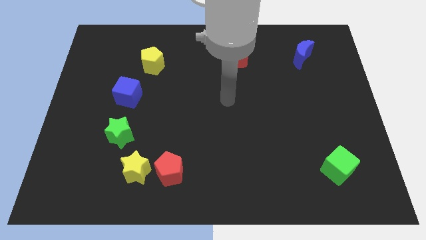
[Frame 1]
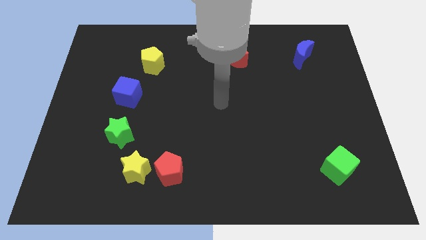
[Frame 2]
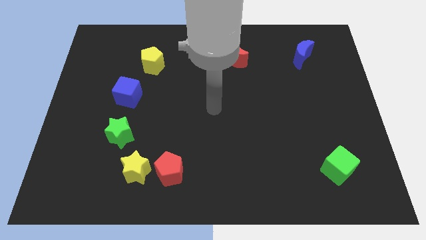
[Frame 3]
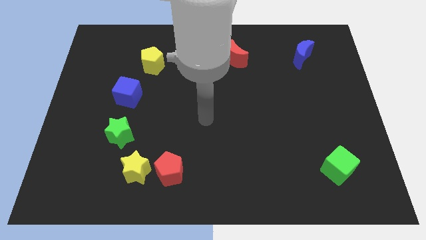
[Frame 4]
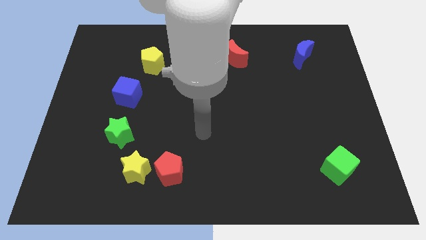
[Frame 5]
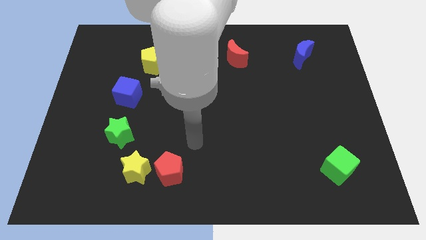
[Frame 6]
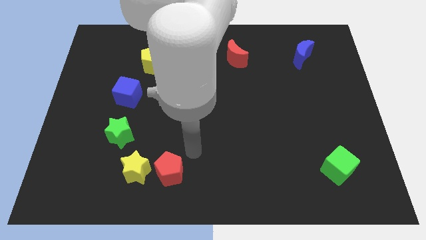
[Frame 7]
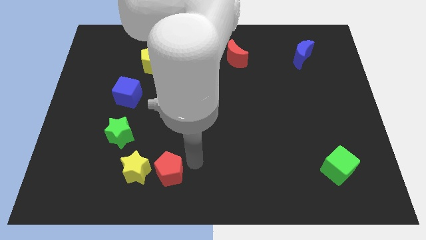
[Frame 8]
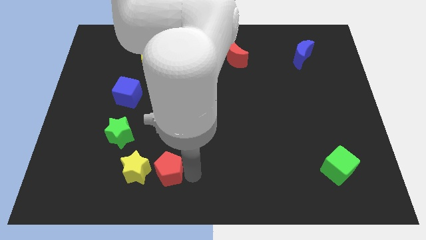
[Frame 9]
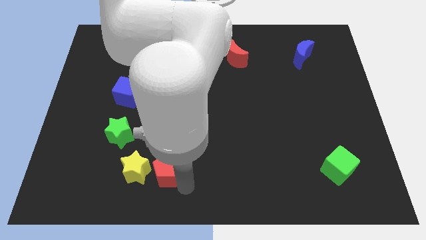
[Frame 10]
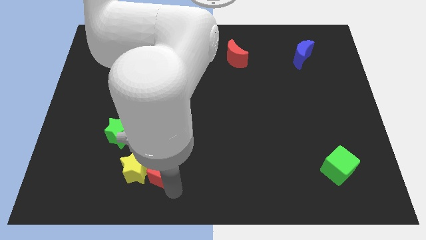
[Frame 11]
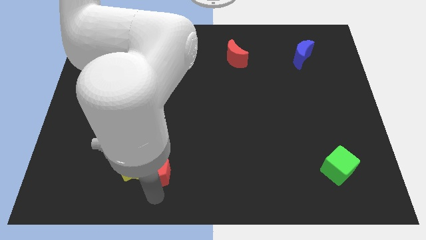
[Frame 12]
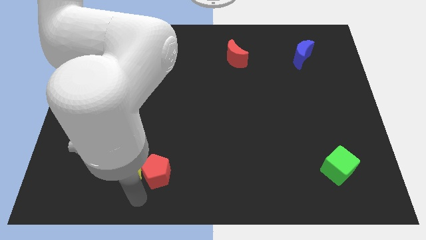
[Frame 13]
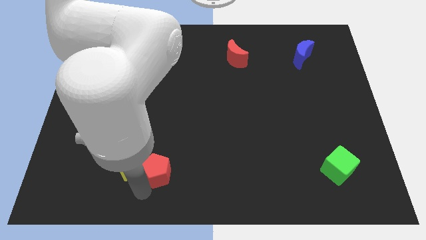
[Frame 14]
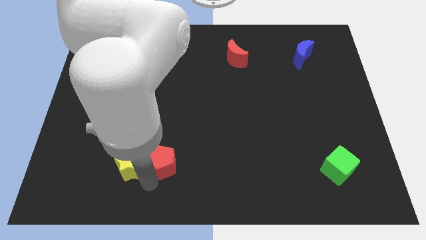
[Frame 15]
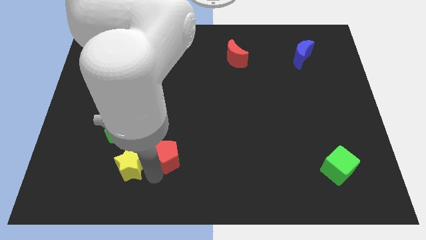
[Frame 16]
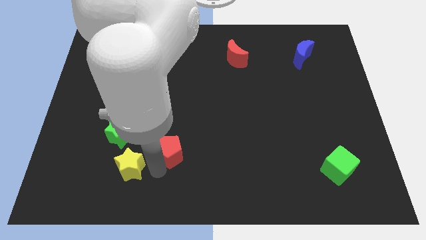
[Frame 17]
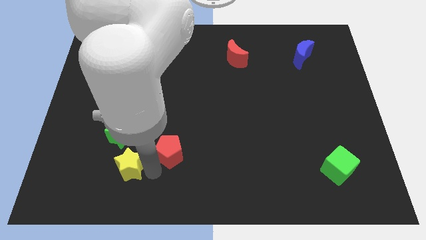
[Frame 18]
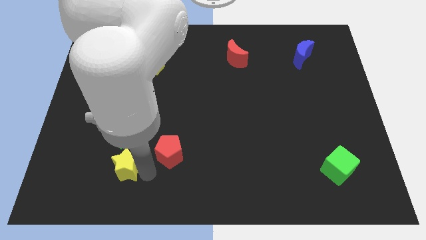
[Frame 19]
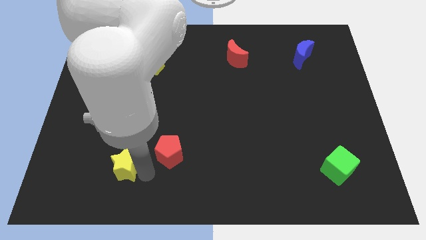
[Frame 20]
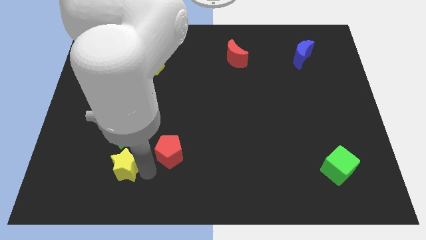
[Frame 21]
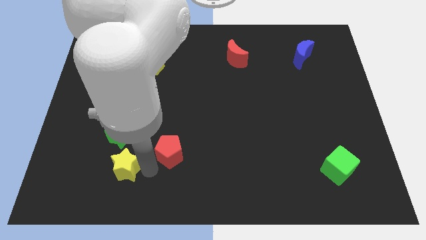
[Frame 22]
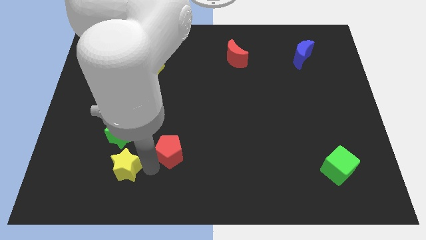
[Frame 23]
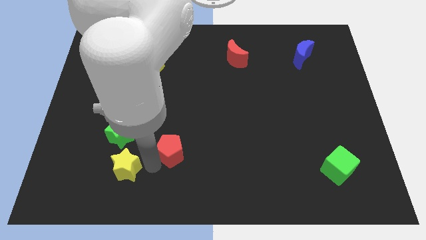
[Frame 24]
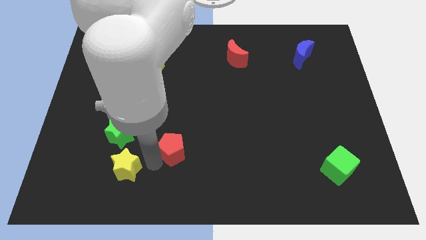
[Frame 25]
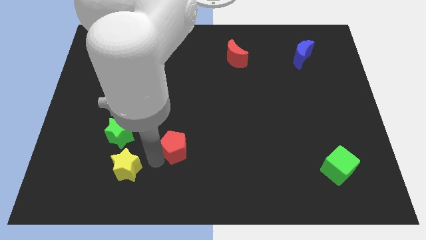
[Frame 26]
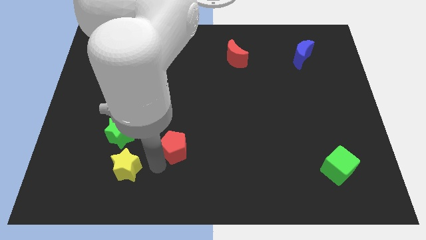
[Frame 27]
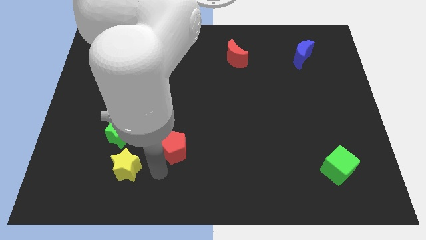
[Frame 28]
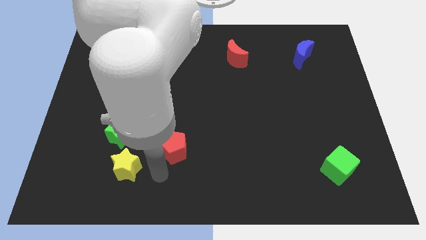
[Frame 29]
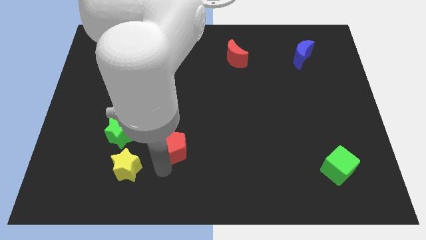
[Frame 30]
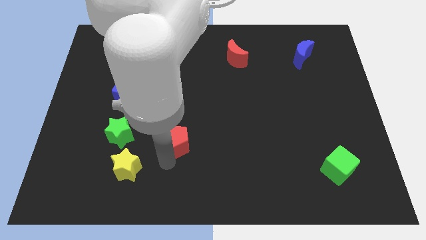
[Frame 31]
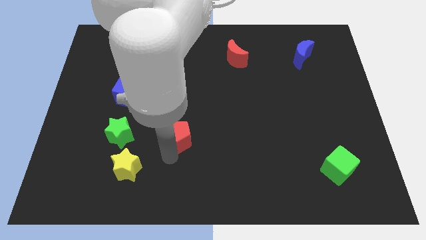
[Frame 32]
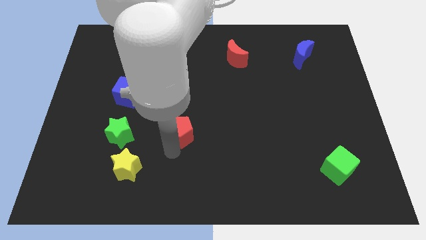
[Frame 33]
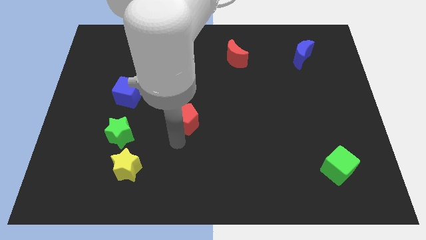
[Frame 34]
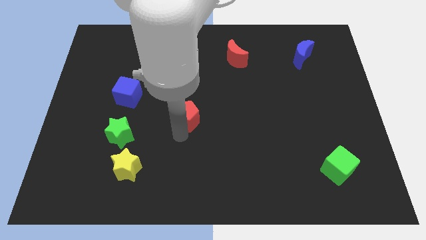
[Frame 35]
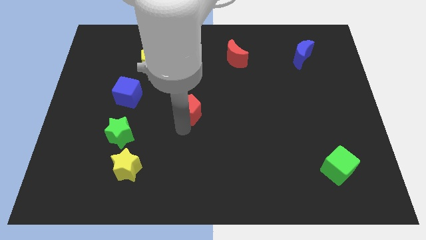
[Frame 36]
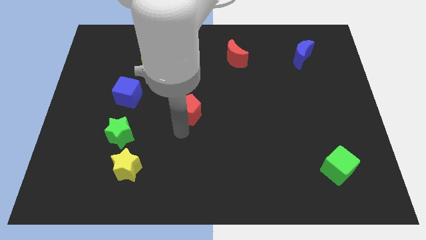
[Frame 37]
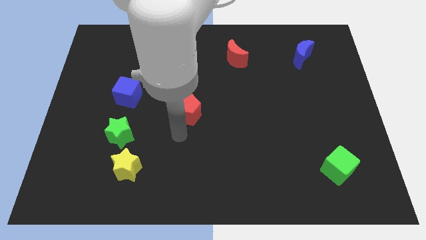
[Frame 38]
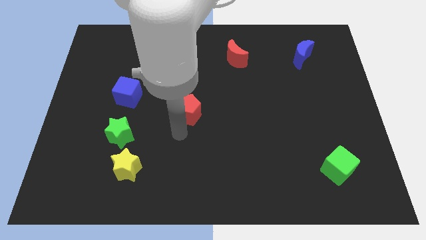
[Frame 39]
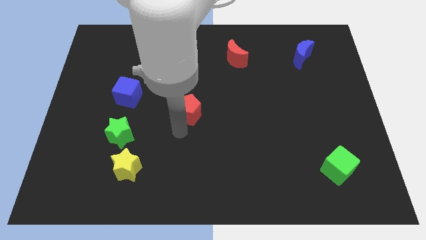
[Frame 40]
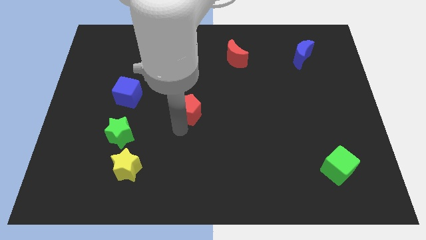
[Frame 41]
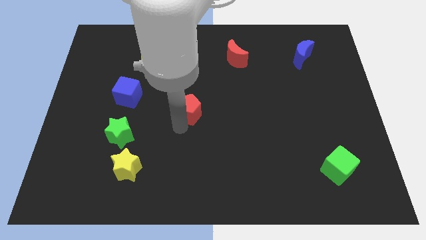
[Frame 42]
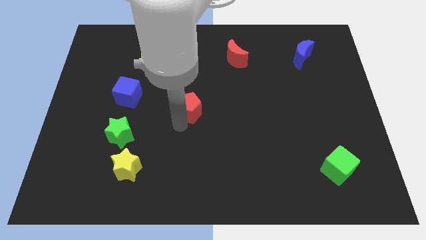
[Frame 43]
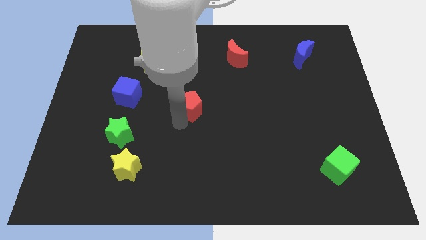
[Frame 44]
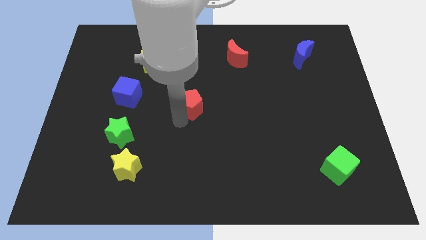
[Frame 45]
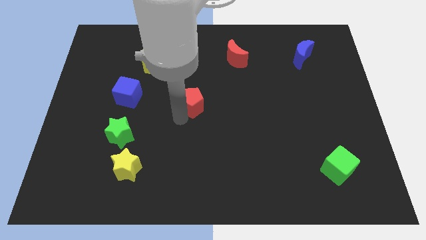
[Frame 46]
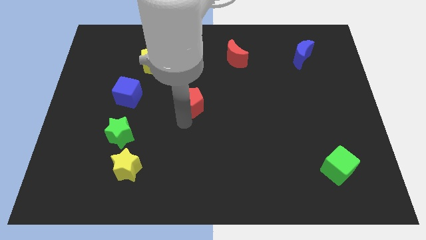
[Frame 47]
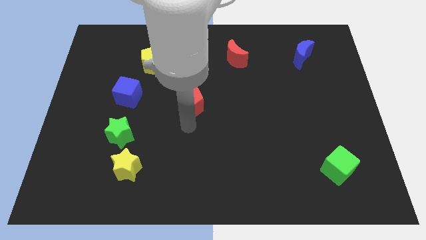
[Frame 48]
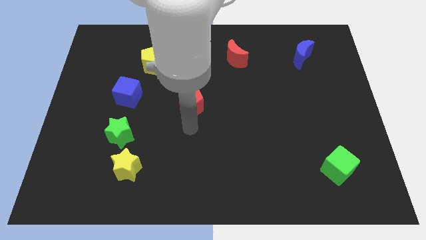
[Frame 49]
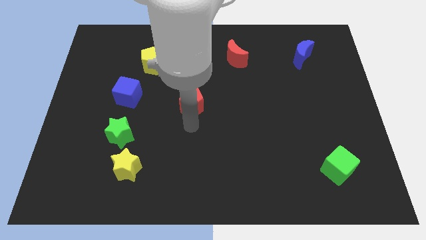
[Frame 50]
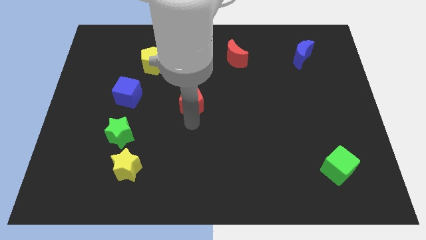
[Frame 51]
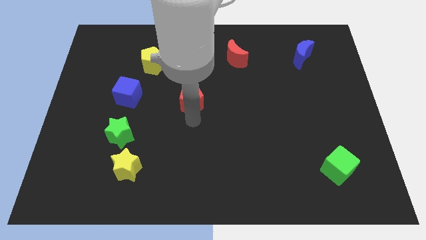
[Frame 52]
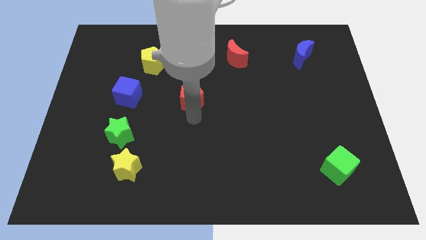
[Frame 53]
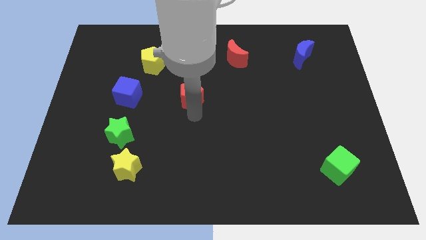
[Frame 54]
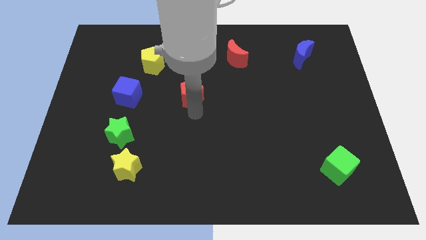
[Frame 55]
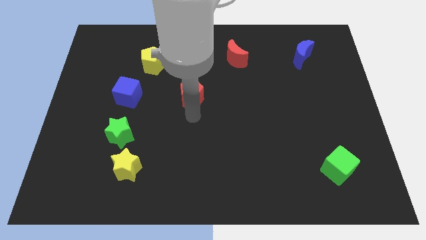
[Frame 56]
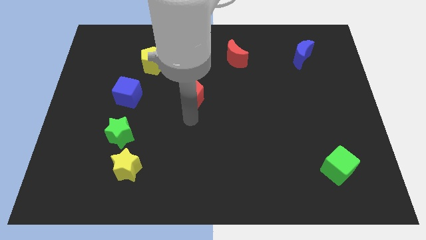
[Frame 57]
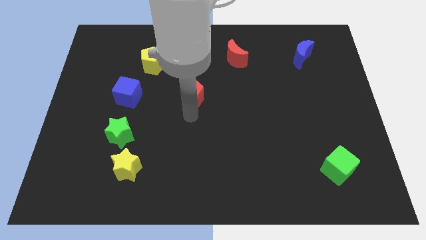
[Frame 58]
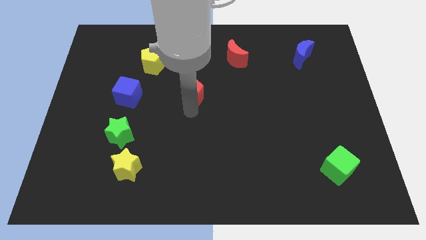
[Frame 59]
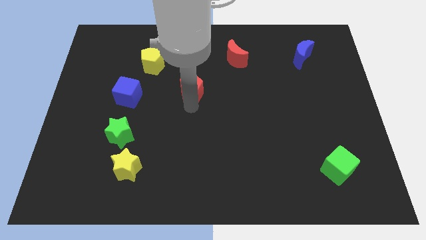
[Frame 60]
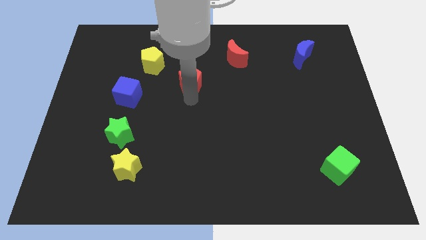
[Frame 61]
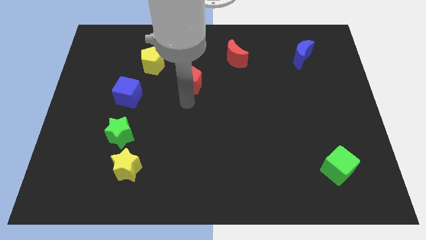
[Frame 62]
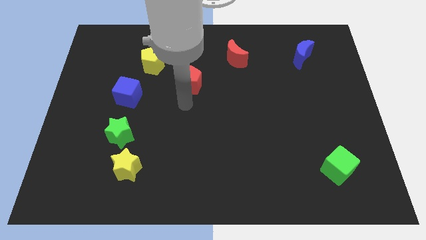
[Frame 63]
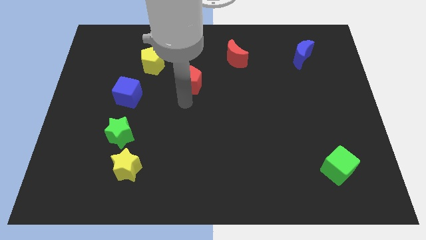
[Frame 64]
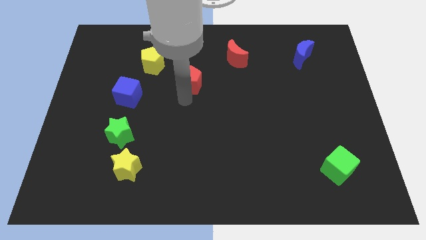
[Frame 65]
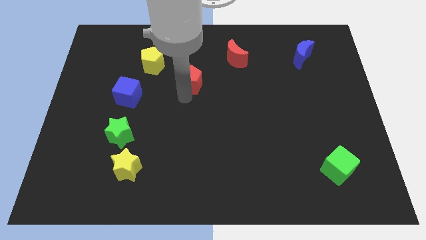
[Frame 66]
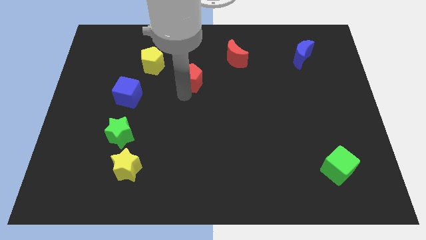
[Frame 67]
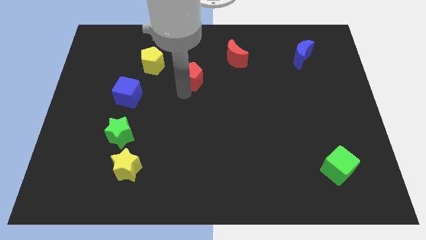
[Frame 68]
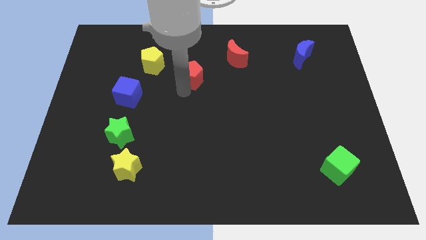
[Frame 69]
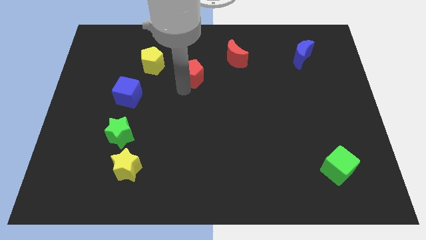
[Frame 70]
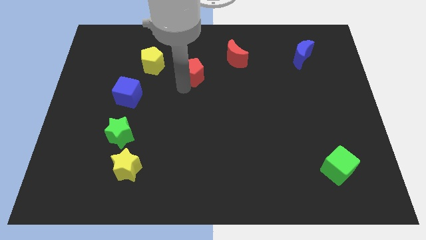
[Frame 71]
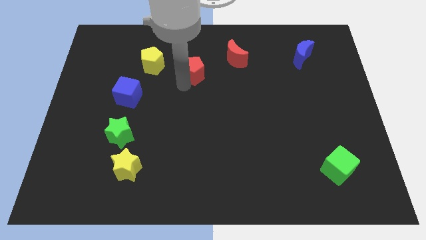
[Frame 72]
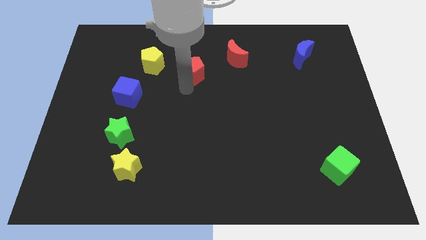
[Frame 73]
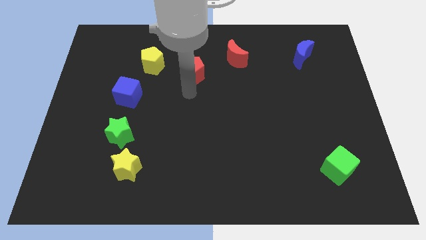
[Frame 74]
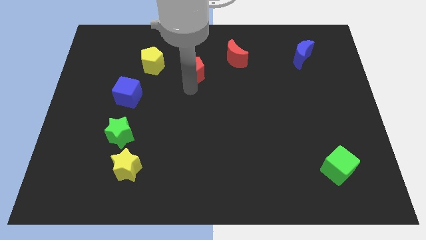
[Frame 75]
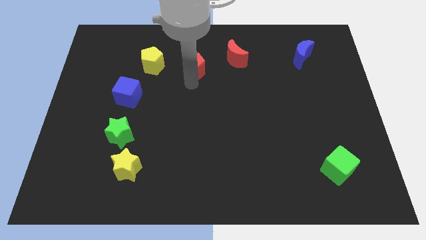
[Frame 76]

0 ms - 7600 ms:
put the red pentagon to the left side of the red moon

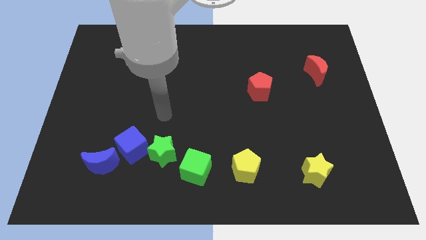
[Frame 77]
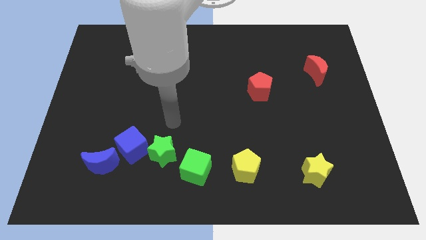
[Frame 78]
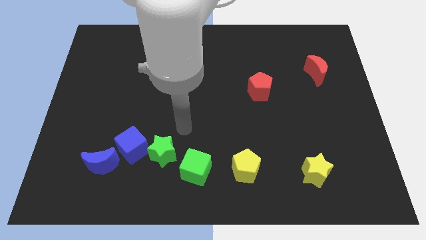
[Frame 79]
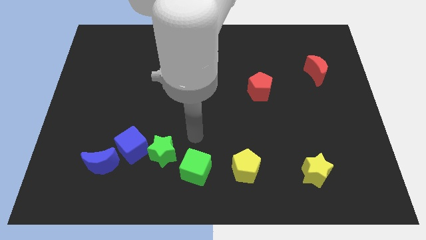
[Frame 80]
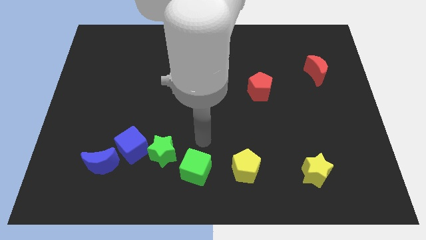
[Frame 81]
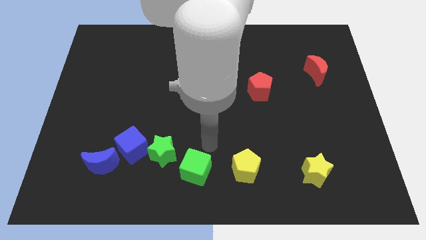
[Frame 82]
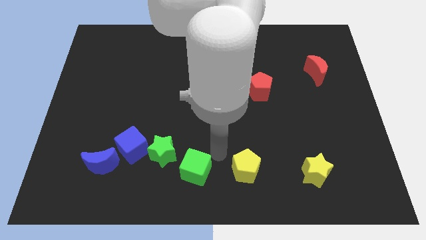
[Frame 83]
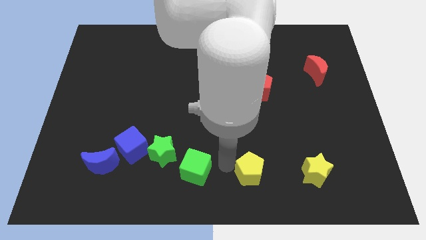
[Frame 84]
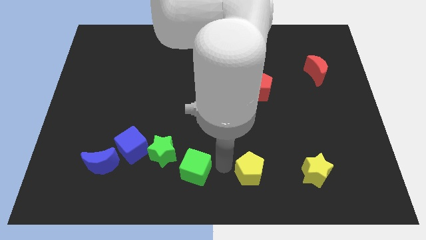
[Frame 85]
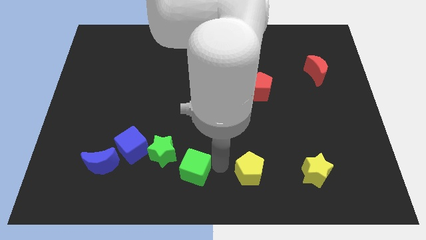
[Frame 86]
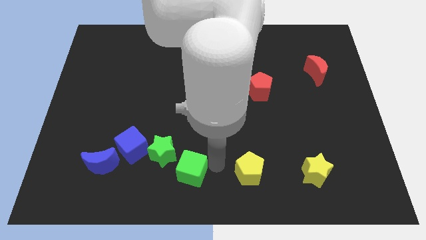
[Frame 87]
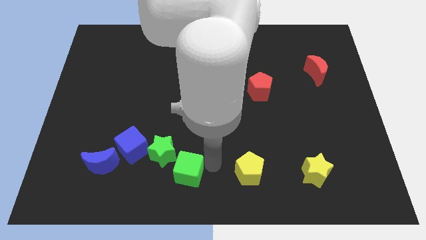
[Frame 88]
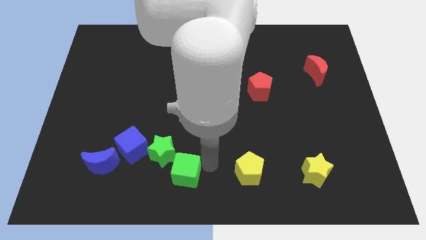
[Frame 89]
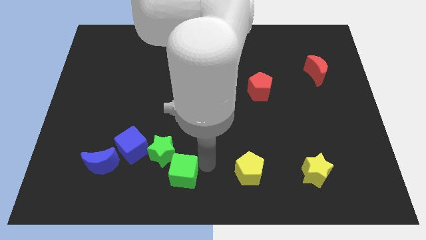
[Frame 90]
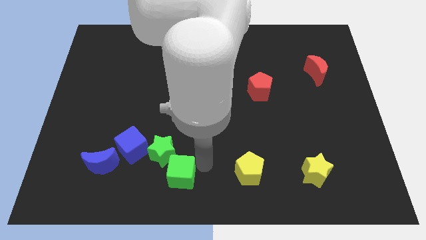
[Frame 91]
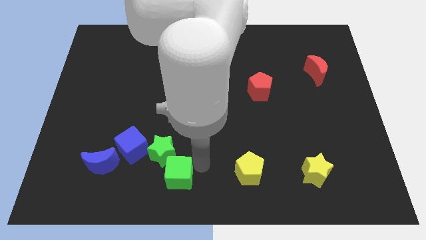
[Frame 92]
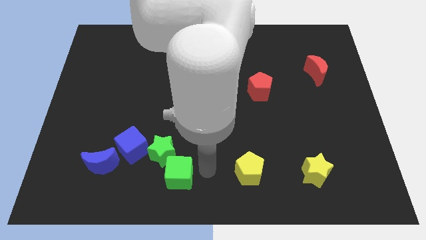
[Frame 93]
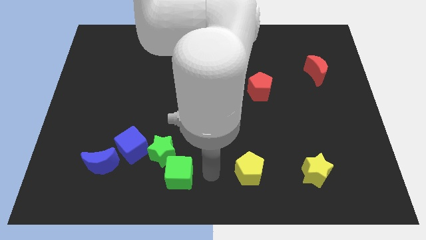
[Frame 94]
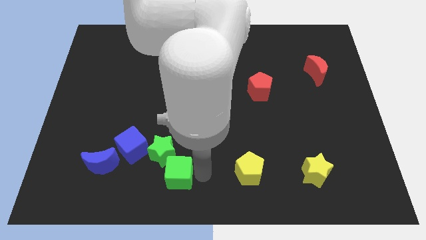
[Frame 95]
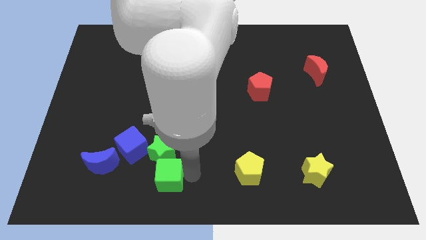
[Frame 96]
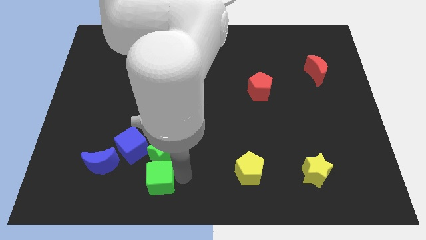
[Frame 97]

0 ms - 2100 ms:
put the green cube diagonally down and to the left of the green star
